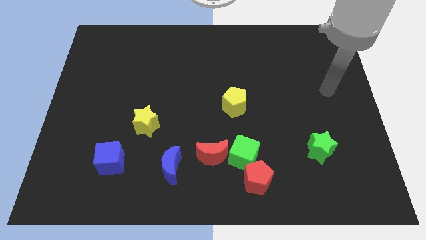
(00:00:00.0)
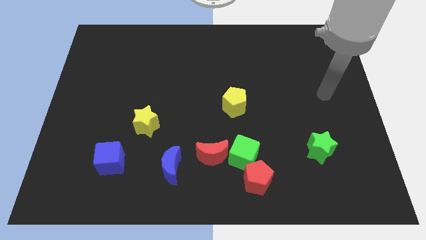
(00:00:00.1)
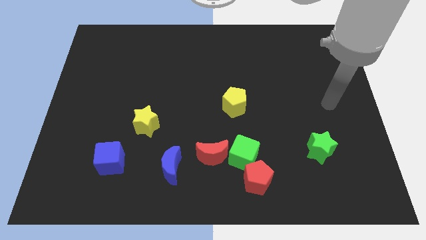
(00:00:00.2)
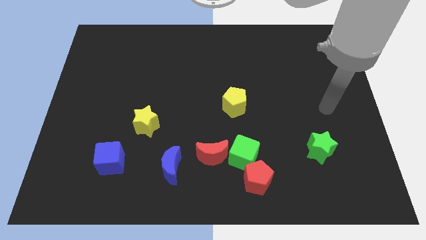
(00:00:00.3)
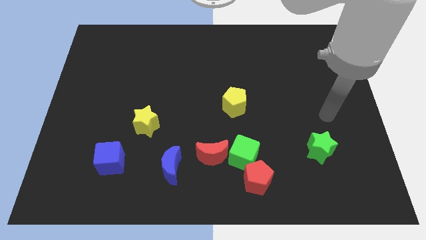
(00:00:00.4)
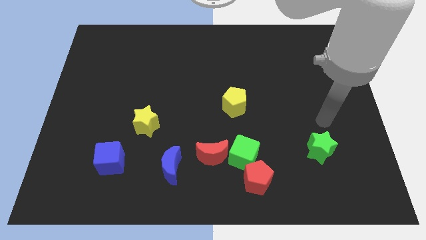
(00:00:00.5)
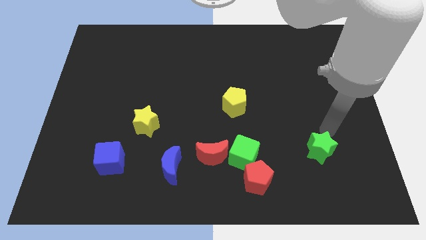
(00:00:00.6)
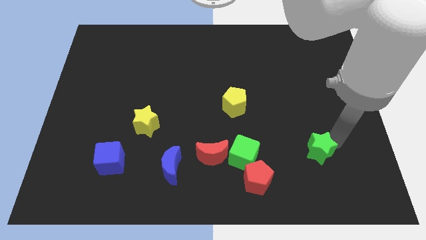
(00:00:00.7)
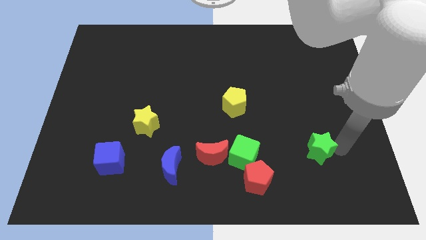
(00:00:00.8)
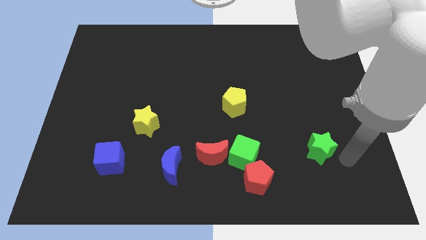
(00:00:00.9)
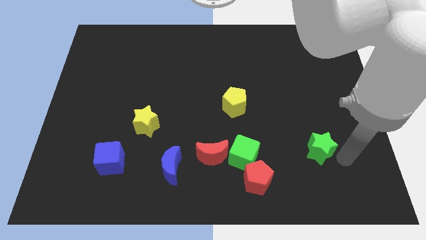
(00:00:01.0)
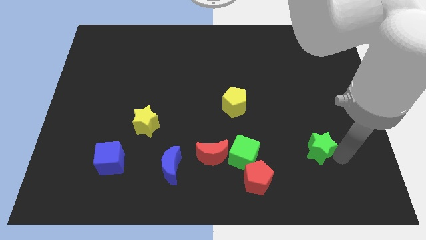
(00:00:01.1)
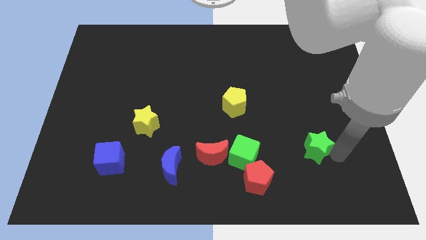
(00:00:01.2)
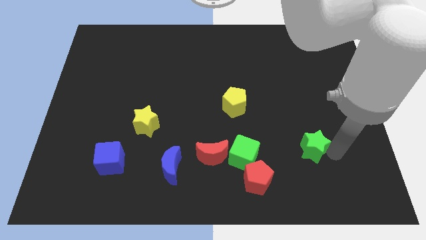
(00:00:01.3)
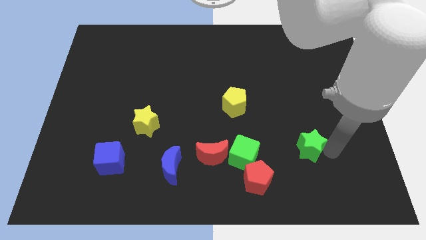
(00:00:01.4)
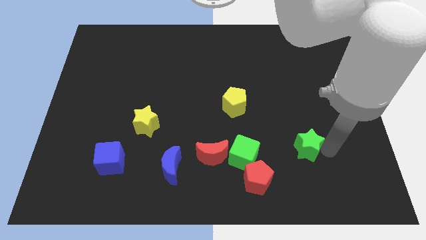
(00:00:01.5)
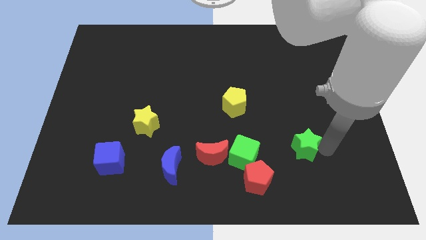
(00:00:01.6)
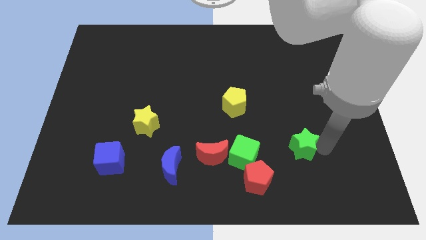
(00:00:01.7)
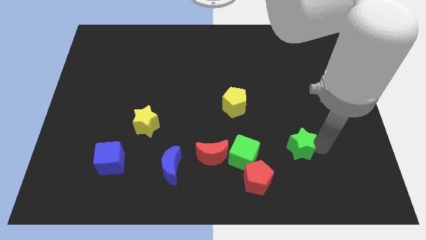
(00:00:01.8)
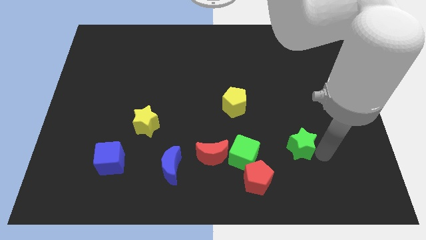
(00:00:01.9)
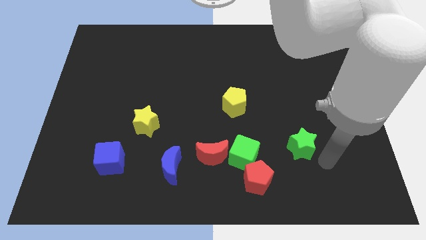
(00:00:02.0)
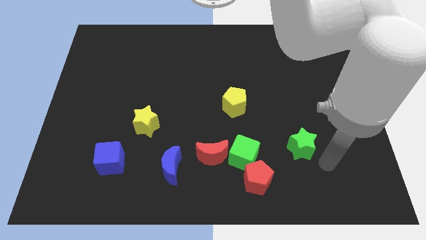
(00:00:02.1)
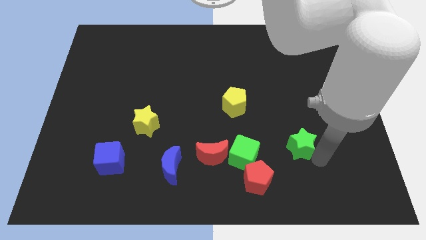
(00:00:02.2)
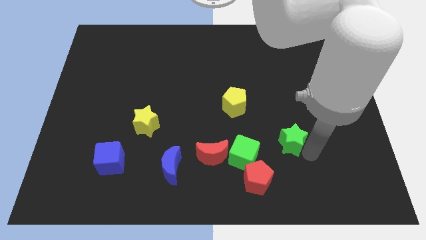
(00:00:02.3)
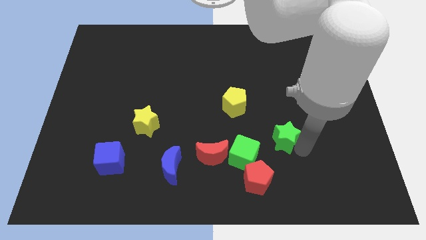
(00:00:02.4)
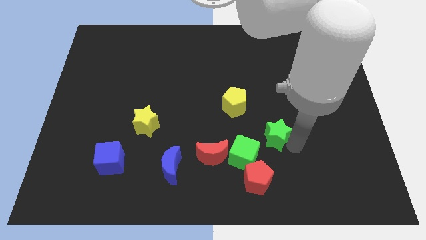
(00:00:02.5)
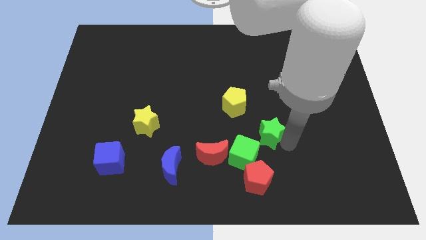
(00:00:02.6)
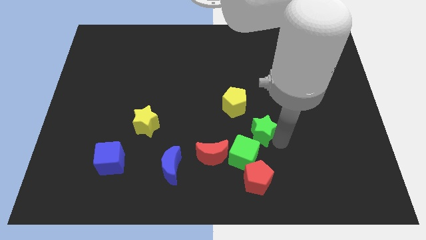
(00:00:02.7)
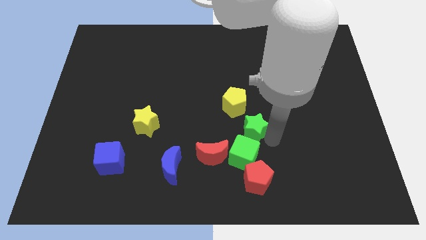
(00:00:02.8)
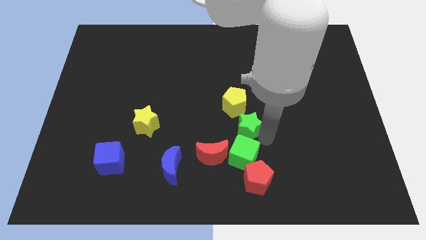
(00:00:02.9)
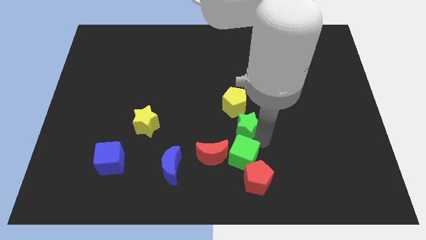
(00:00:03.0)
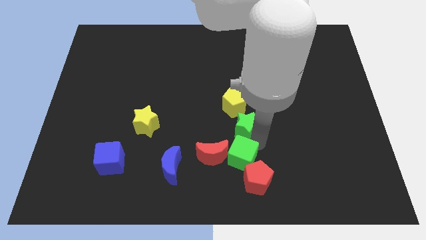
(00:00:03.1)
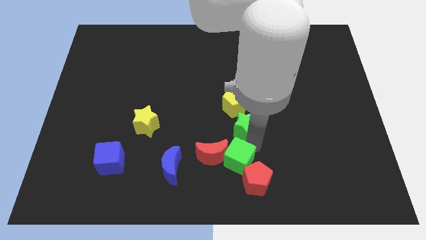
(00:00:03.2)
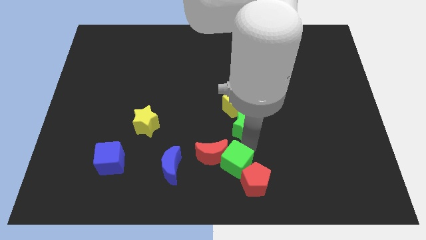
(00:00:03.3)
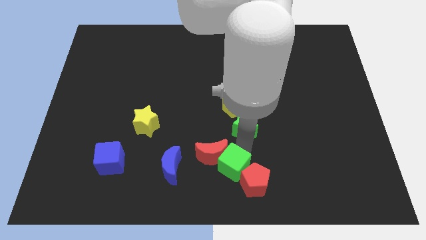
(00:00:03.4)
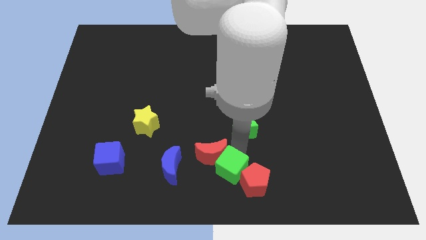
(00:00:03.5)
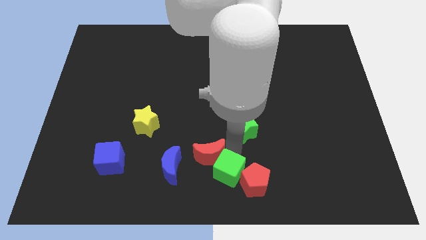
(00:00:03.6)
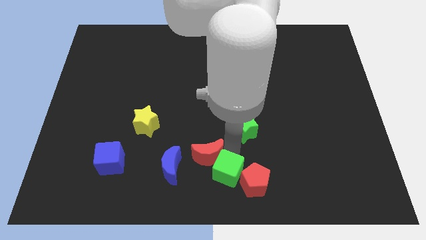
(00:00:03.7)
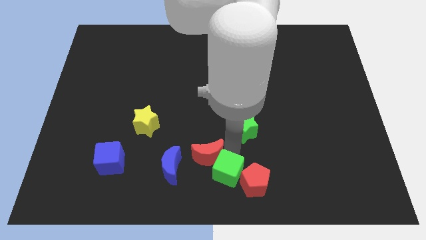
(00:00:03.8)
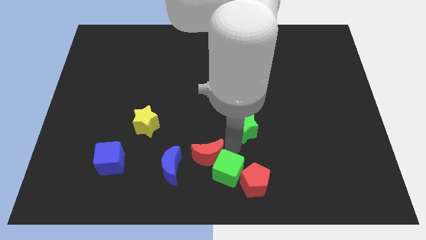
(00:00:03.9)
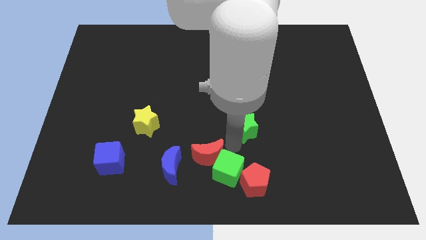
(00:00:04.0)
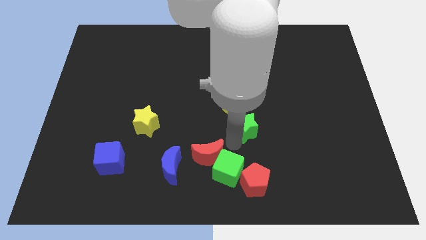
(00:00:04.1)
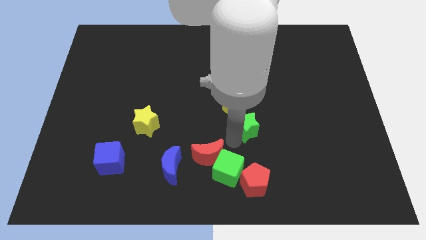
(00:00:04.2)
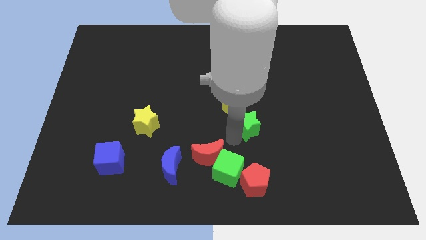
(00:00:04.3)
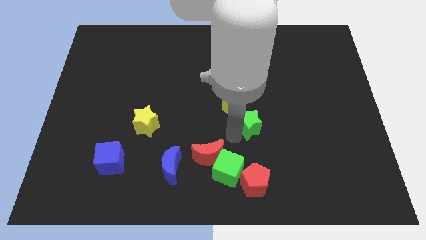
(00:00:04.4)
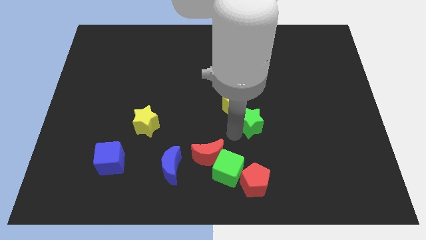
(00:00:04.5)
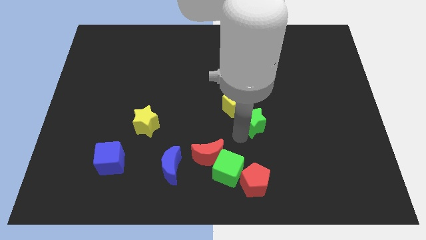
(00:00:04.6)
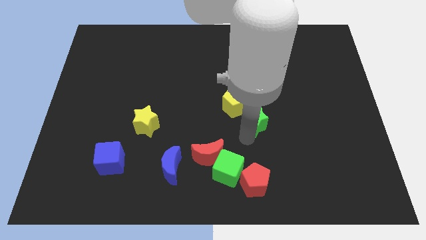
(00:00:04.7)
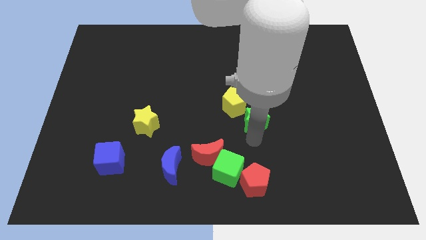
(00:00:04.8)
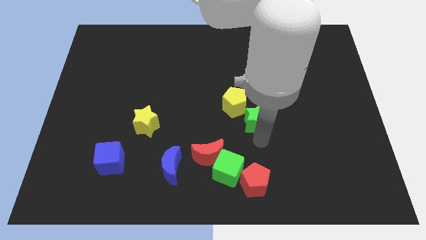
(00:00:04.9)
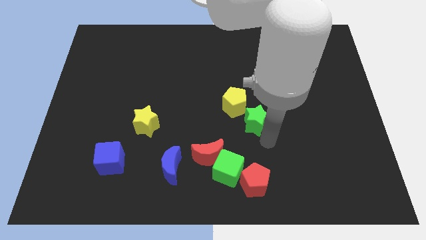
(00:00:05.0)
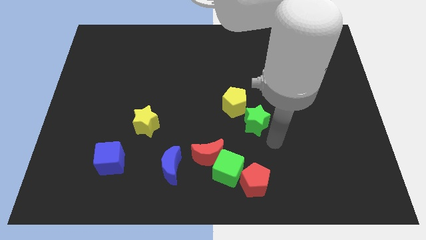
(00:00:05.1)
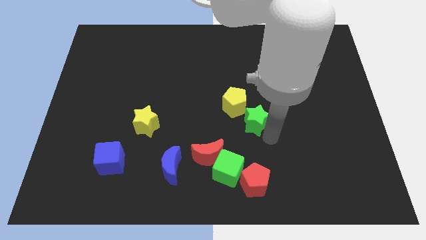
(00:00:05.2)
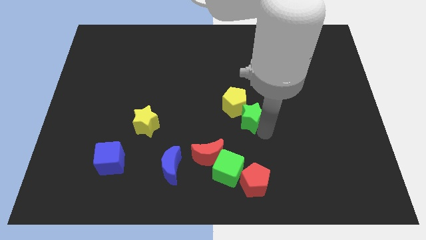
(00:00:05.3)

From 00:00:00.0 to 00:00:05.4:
move the green star to the yellow pentagon
